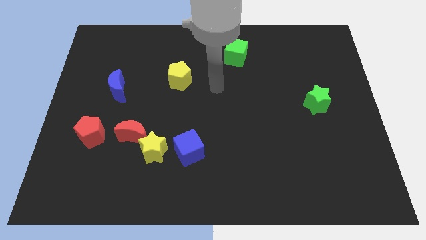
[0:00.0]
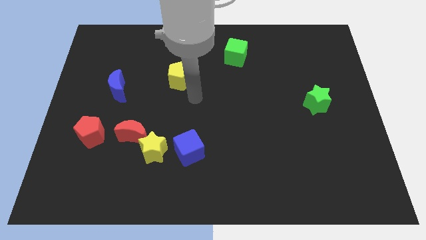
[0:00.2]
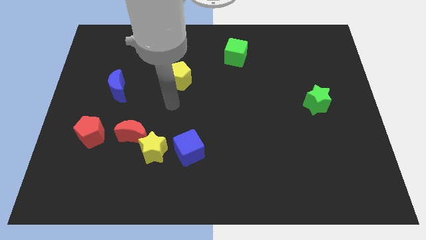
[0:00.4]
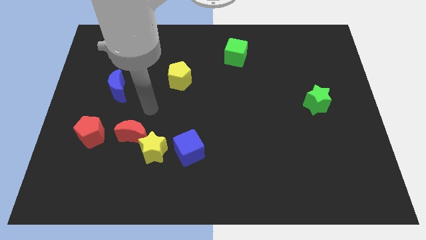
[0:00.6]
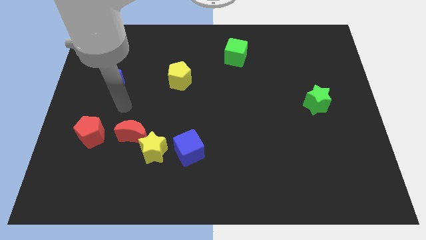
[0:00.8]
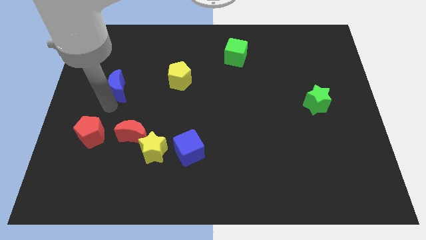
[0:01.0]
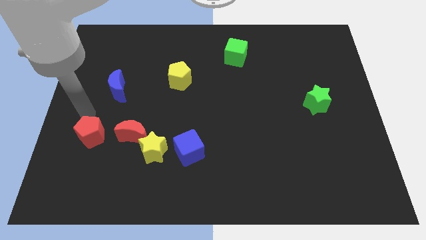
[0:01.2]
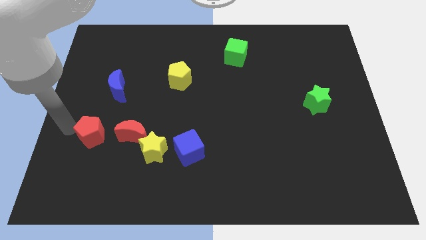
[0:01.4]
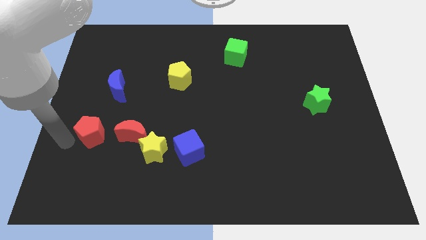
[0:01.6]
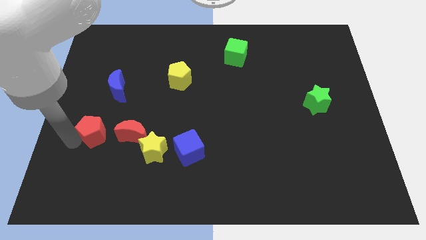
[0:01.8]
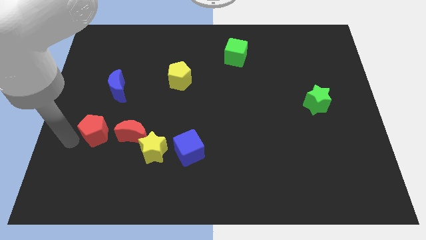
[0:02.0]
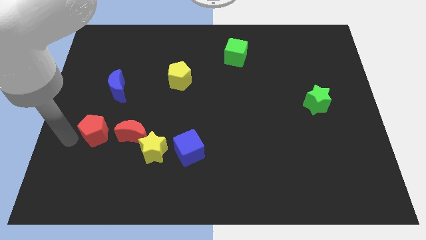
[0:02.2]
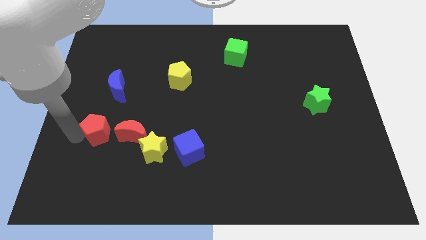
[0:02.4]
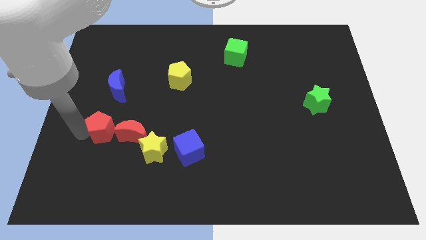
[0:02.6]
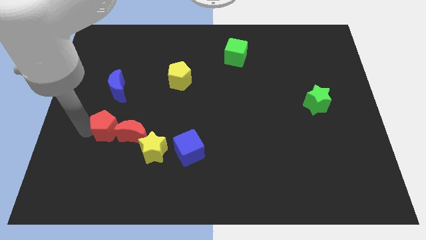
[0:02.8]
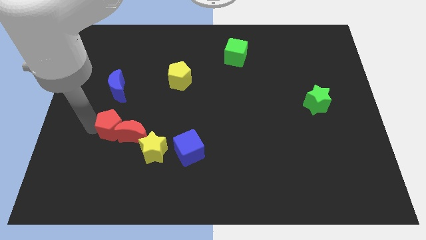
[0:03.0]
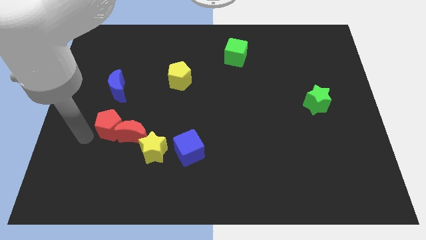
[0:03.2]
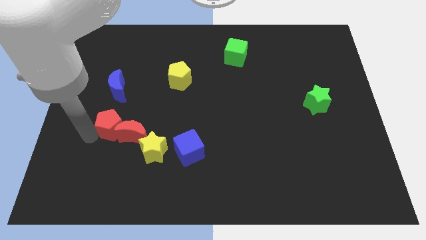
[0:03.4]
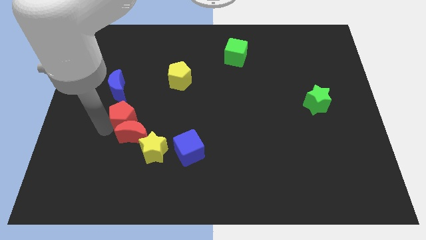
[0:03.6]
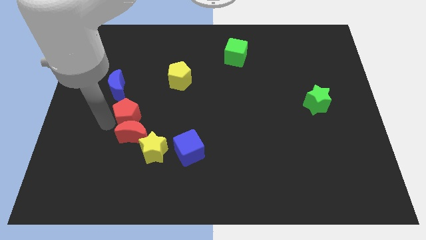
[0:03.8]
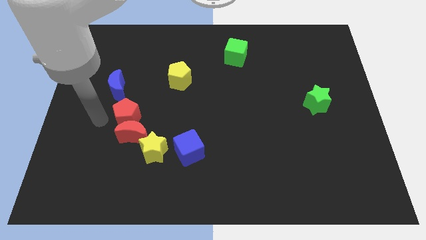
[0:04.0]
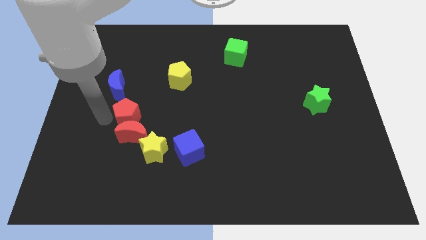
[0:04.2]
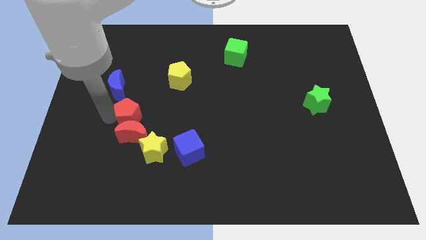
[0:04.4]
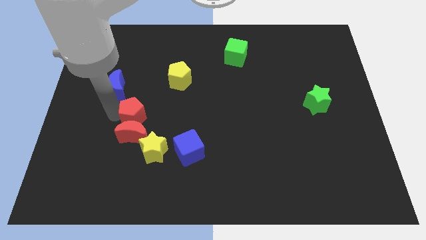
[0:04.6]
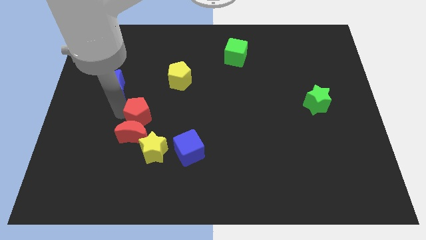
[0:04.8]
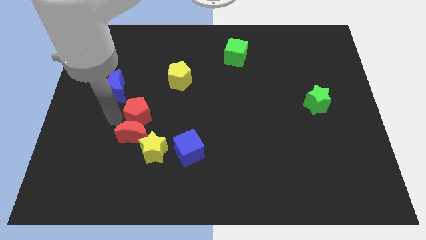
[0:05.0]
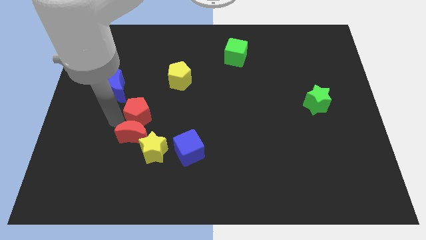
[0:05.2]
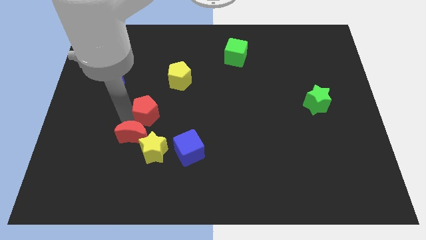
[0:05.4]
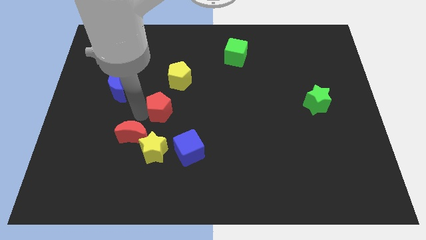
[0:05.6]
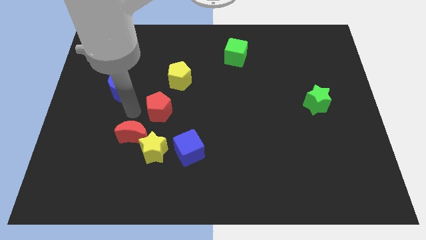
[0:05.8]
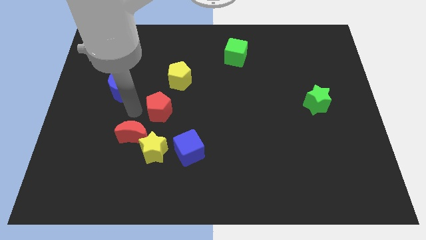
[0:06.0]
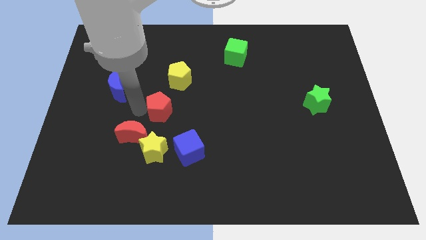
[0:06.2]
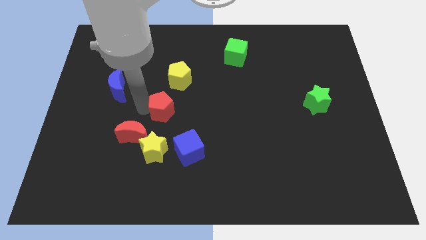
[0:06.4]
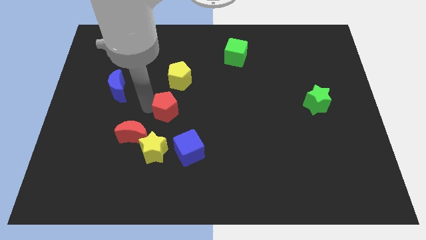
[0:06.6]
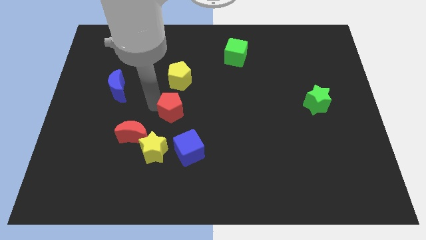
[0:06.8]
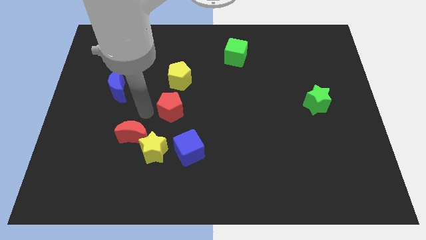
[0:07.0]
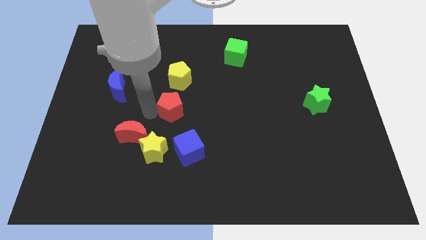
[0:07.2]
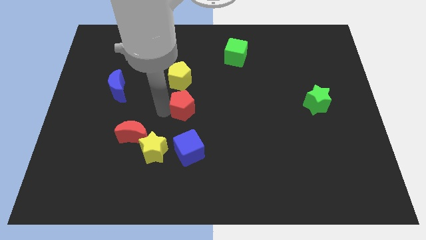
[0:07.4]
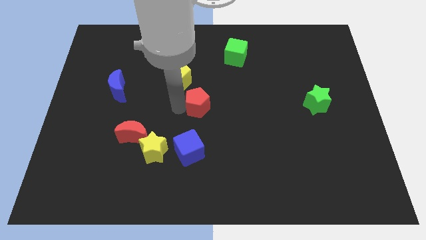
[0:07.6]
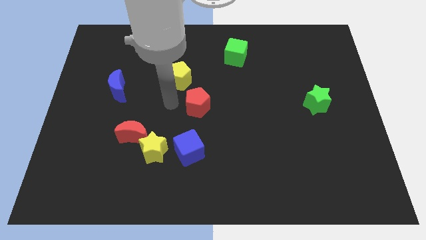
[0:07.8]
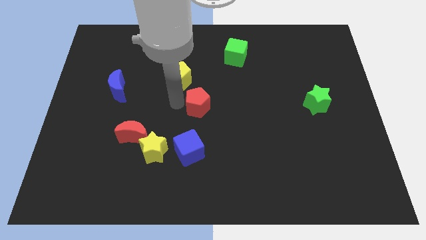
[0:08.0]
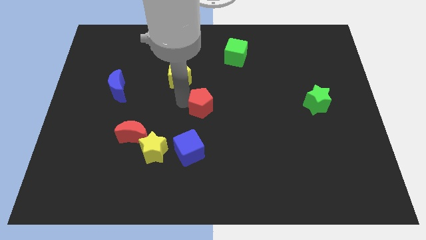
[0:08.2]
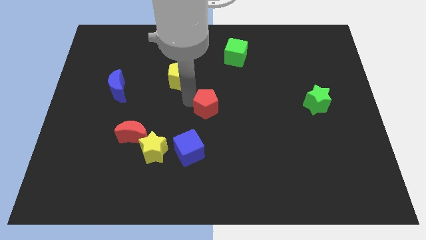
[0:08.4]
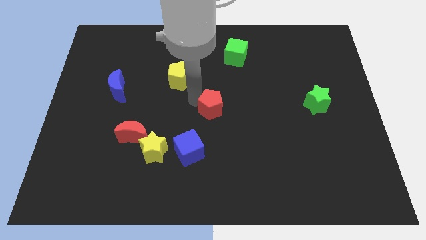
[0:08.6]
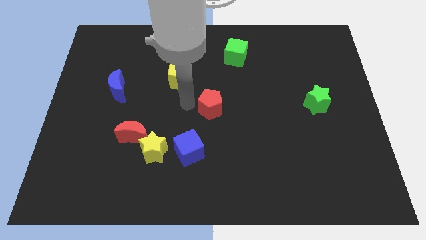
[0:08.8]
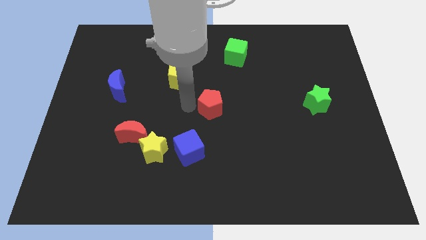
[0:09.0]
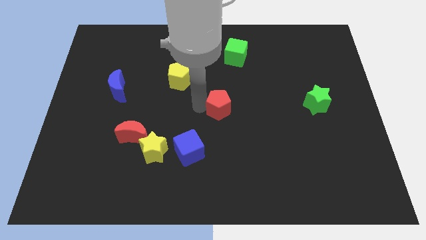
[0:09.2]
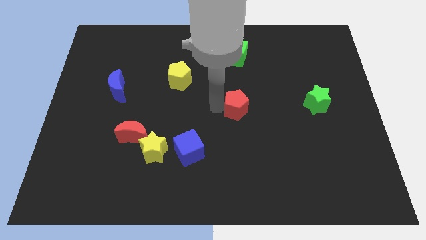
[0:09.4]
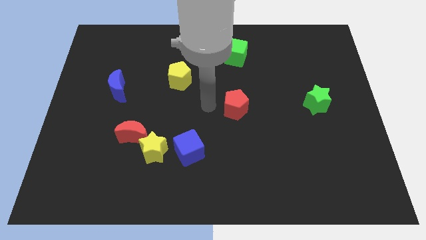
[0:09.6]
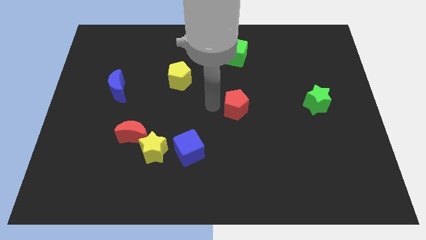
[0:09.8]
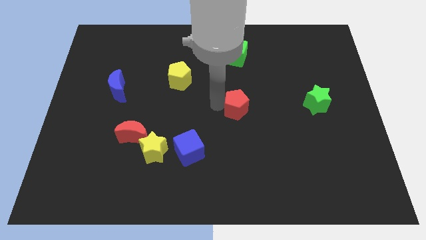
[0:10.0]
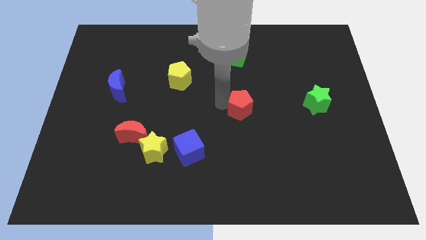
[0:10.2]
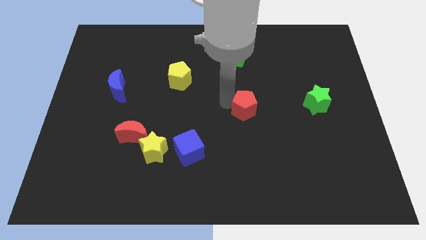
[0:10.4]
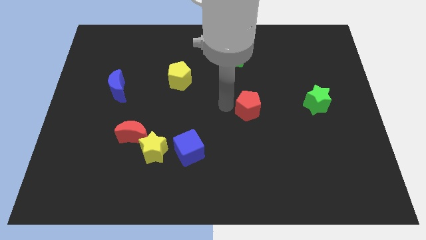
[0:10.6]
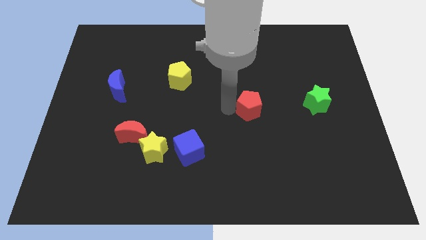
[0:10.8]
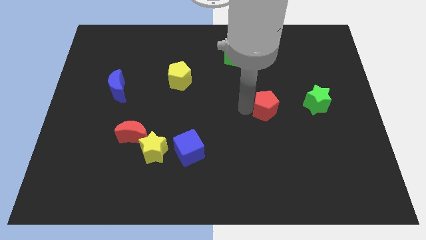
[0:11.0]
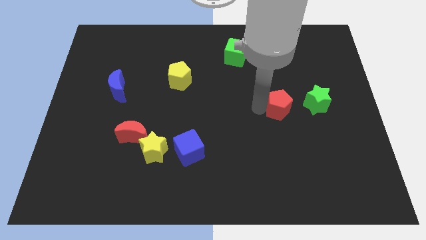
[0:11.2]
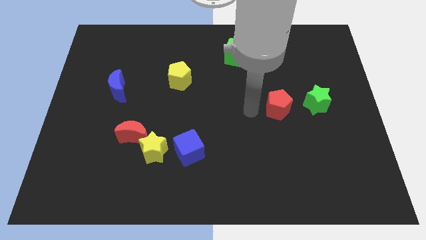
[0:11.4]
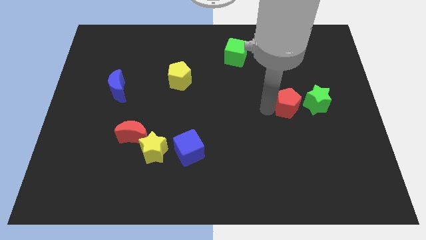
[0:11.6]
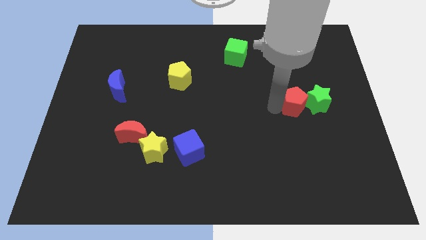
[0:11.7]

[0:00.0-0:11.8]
push the red pentagon next to the green star

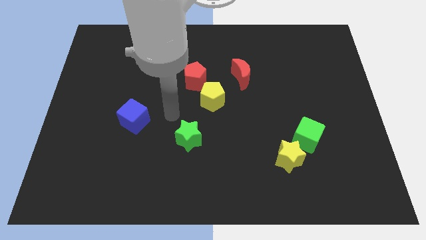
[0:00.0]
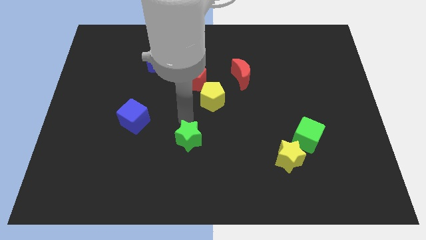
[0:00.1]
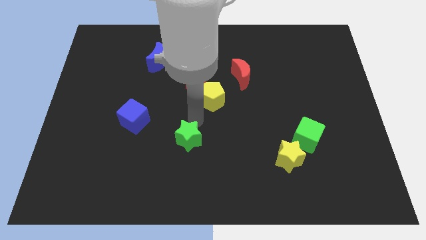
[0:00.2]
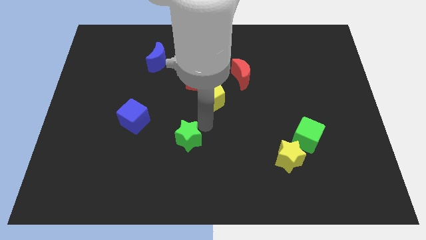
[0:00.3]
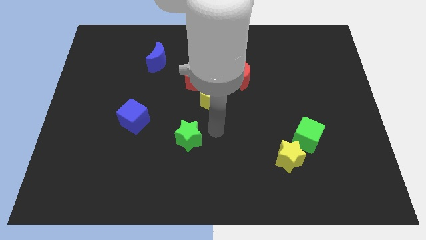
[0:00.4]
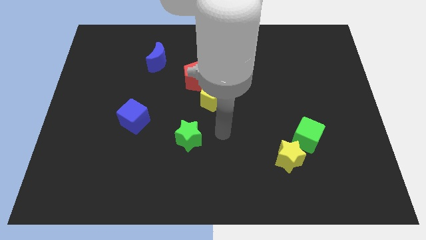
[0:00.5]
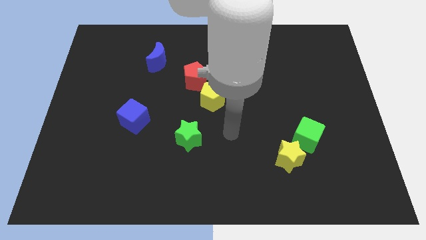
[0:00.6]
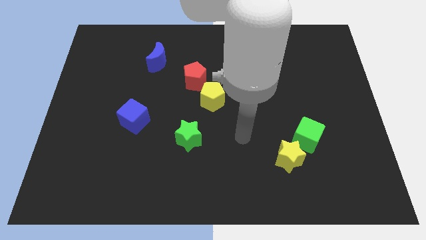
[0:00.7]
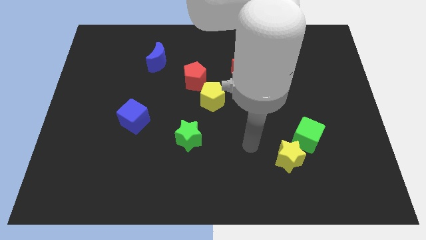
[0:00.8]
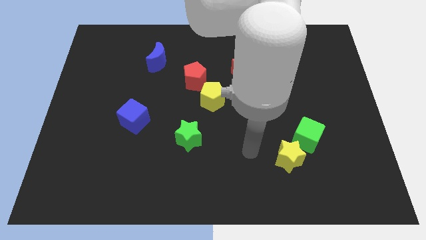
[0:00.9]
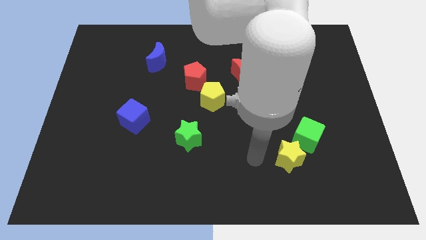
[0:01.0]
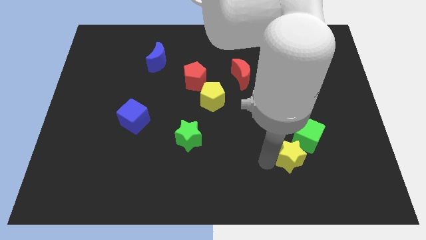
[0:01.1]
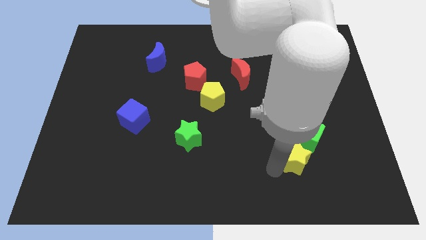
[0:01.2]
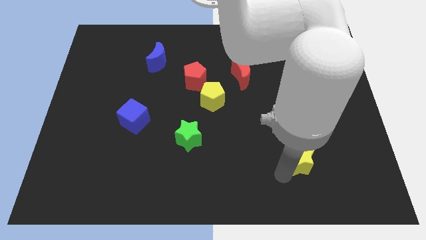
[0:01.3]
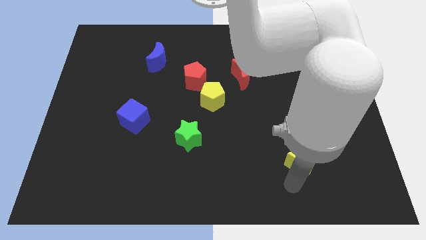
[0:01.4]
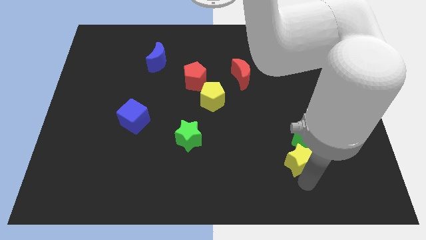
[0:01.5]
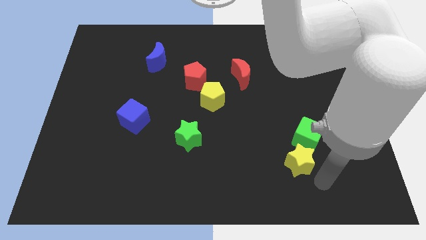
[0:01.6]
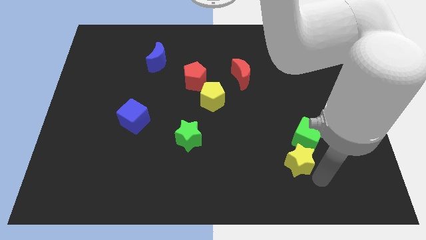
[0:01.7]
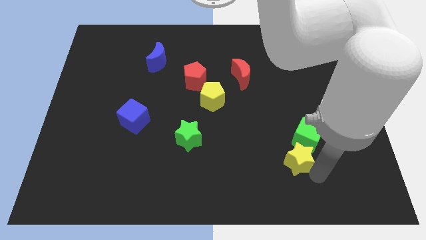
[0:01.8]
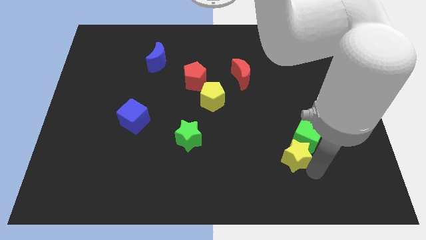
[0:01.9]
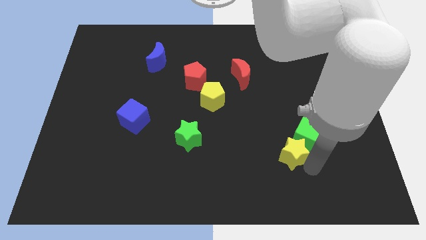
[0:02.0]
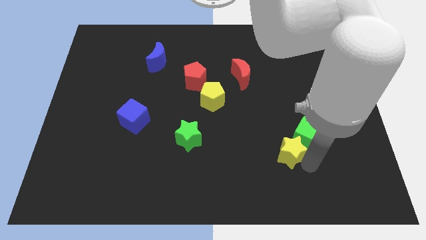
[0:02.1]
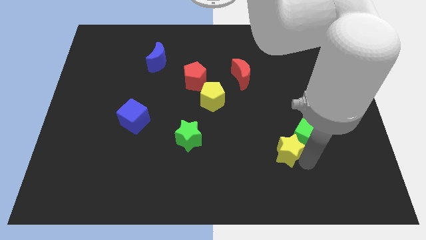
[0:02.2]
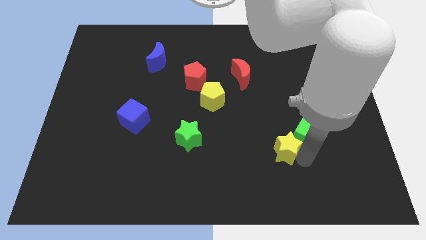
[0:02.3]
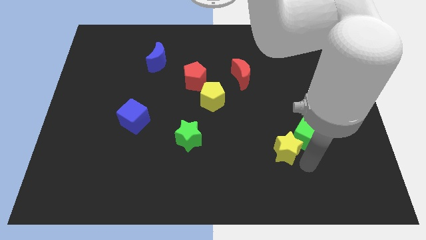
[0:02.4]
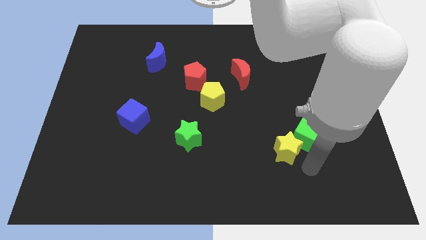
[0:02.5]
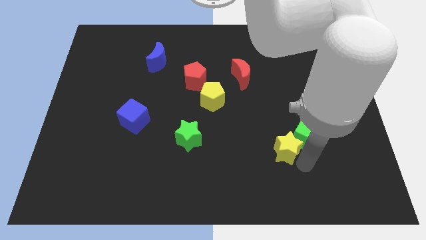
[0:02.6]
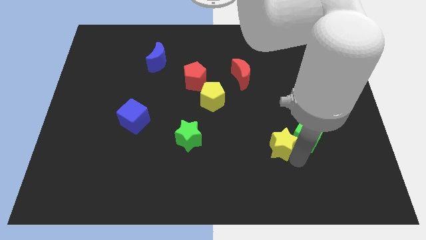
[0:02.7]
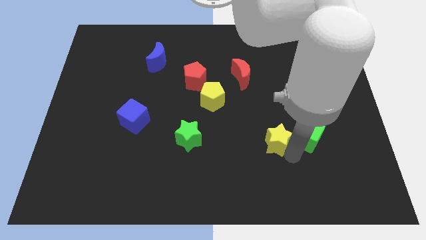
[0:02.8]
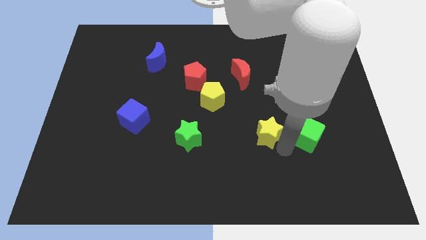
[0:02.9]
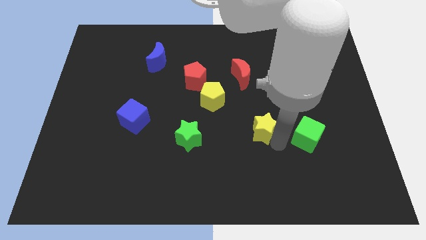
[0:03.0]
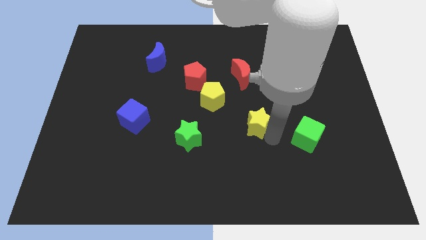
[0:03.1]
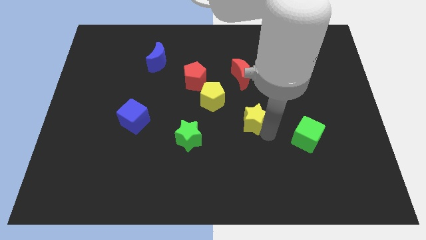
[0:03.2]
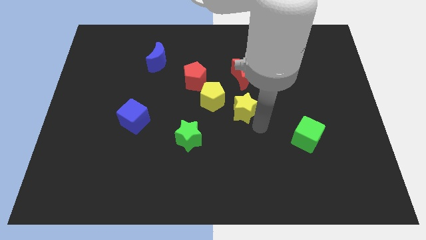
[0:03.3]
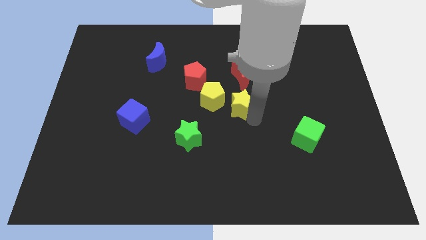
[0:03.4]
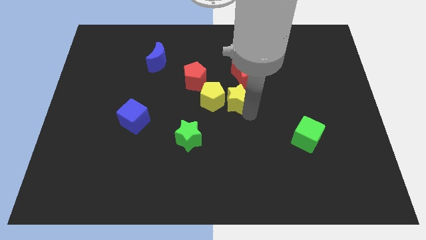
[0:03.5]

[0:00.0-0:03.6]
push the yellow star towards the yellow pentagon
